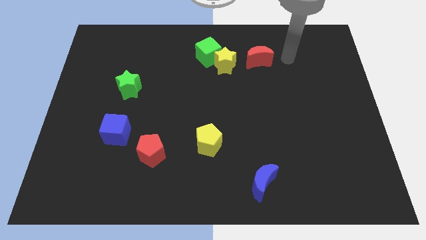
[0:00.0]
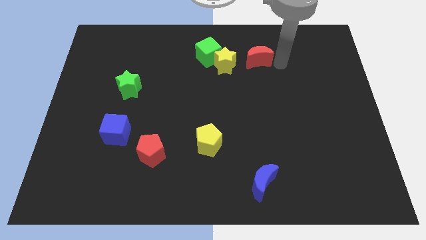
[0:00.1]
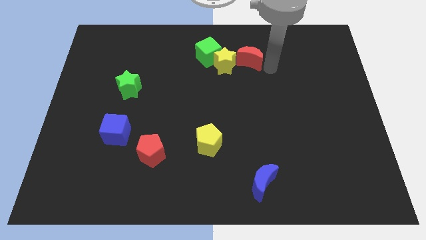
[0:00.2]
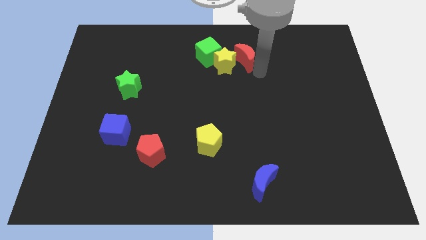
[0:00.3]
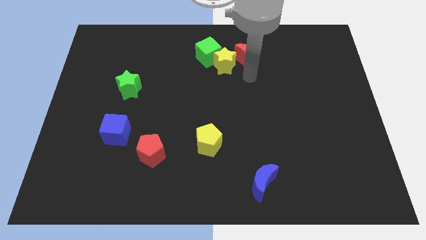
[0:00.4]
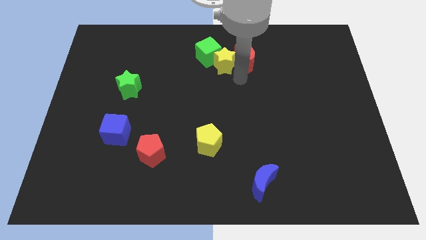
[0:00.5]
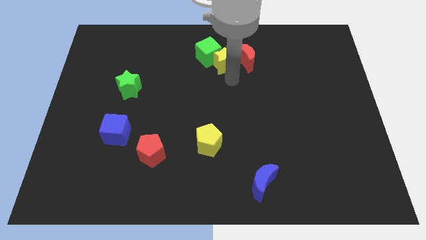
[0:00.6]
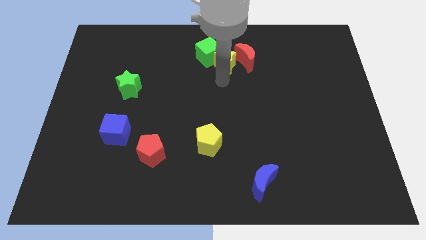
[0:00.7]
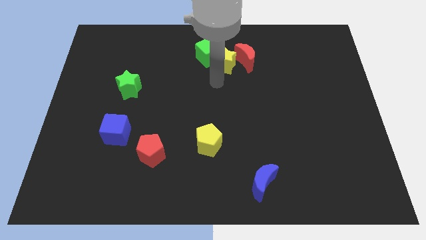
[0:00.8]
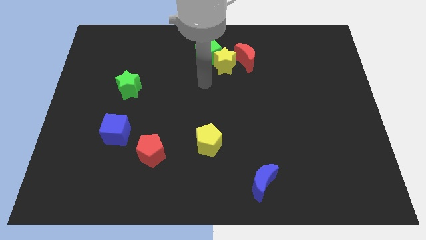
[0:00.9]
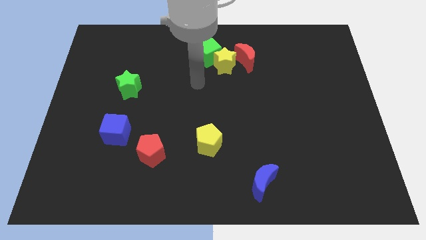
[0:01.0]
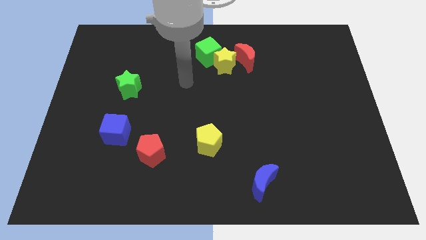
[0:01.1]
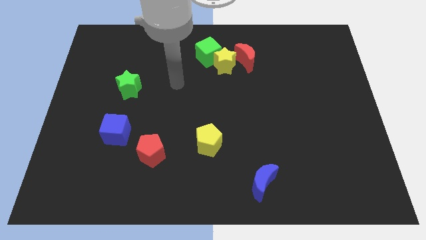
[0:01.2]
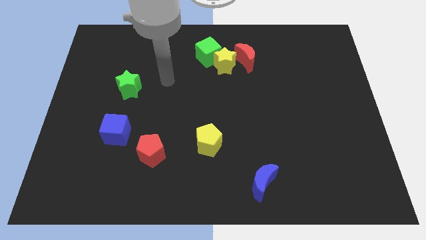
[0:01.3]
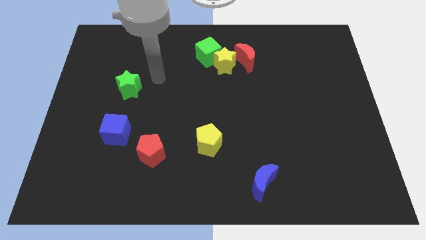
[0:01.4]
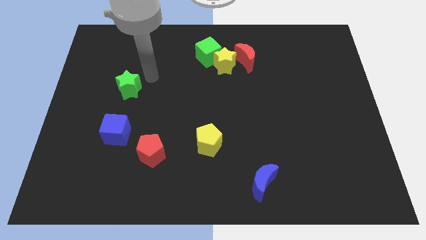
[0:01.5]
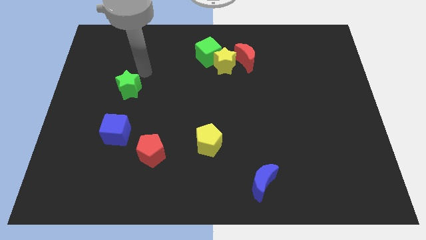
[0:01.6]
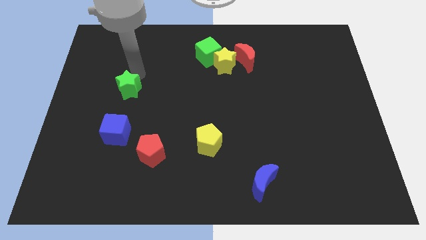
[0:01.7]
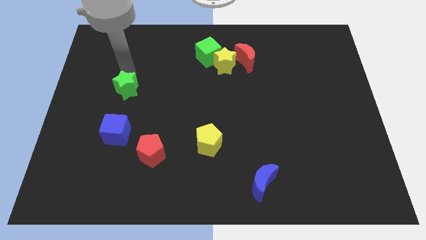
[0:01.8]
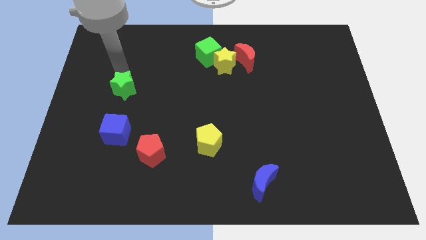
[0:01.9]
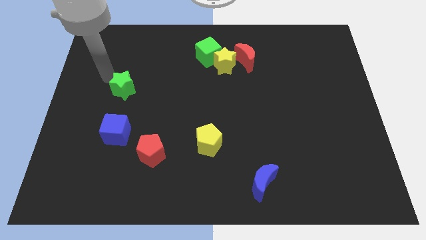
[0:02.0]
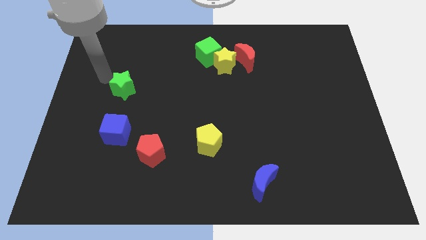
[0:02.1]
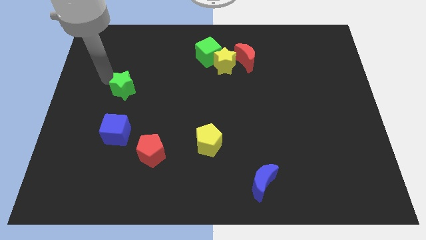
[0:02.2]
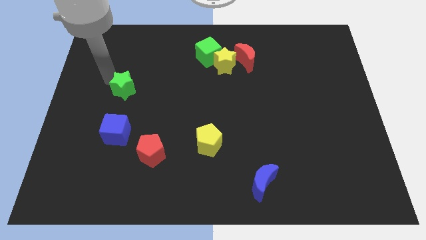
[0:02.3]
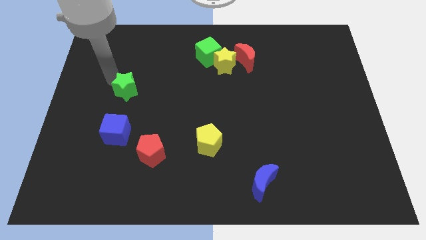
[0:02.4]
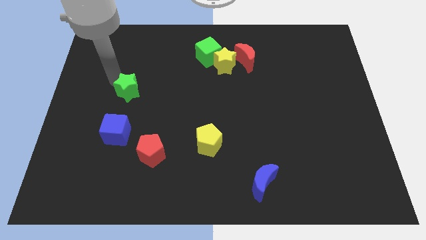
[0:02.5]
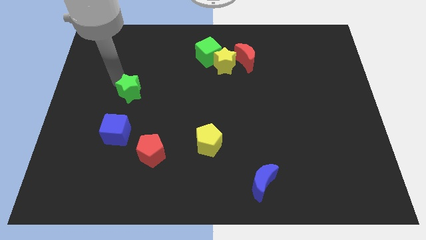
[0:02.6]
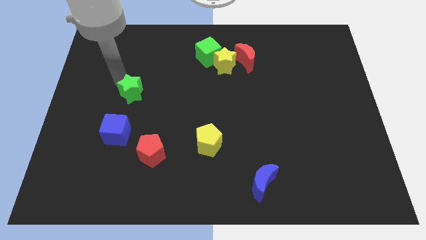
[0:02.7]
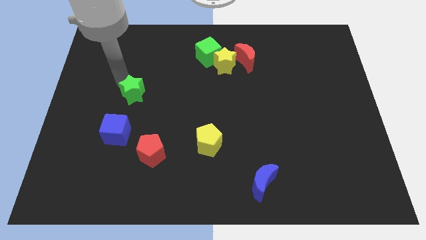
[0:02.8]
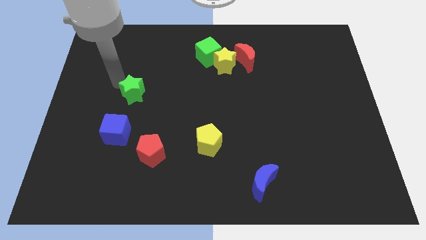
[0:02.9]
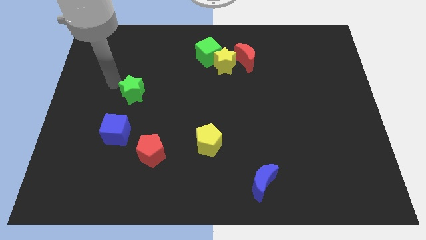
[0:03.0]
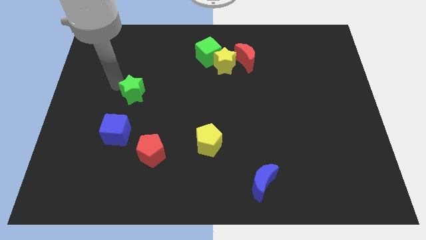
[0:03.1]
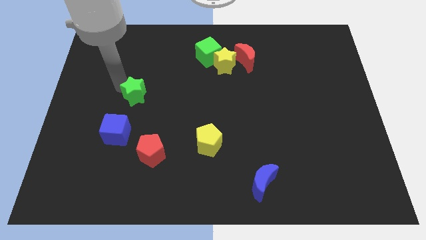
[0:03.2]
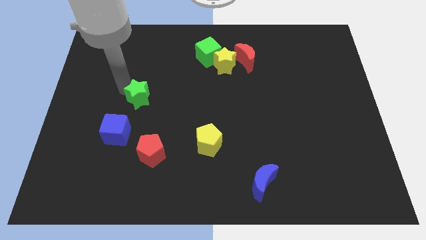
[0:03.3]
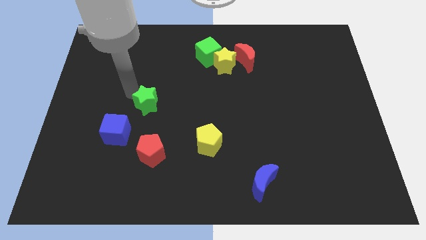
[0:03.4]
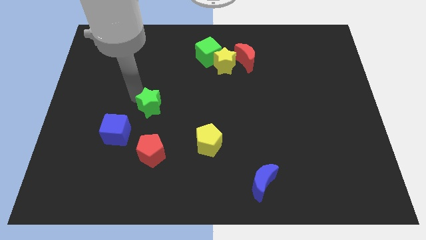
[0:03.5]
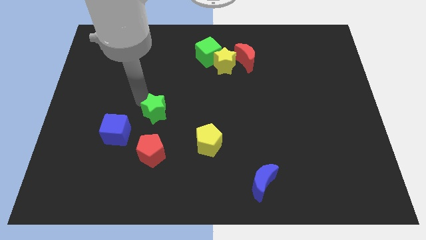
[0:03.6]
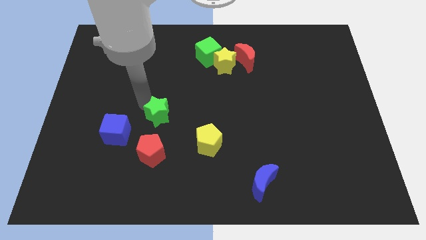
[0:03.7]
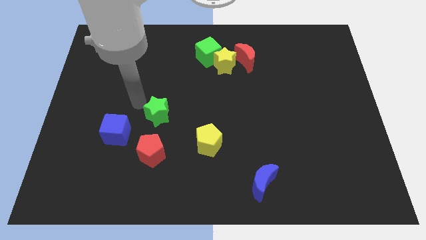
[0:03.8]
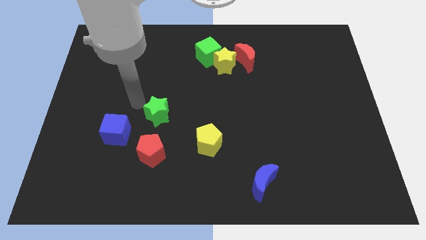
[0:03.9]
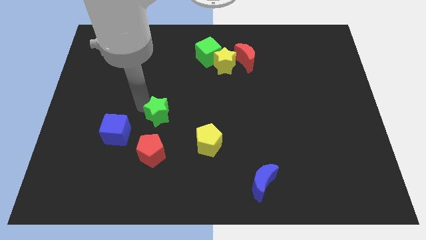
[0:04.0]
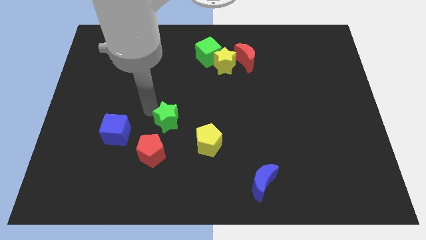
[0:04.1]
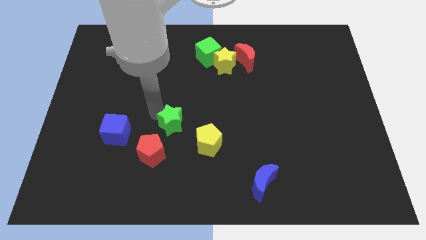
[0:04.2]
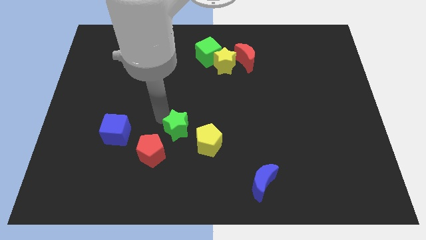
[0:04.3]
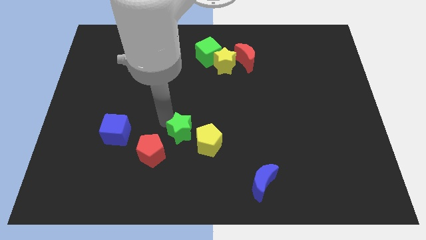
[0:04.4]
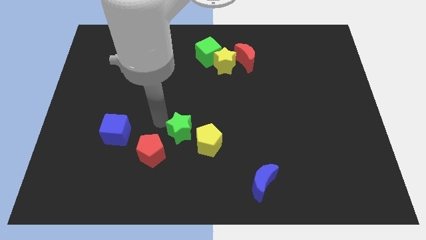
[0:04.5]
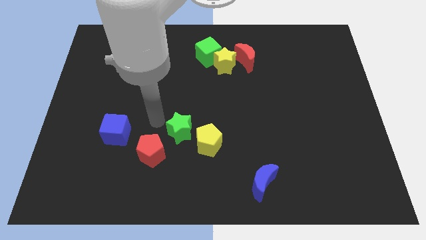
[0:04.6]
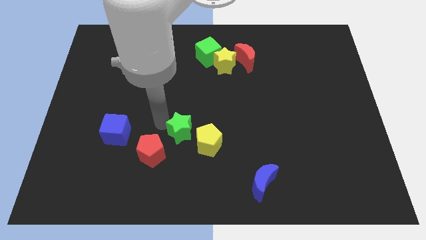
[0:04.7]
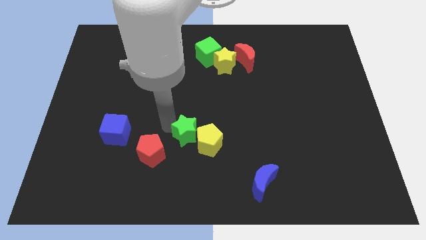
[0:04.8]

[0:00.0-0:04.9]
push the green star next to the yellow pentagon

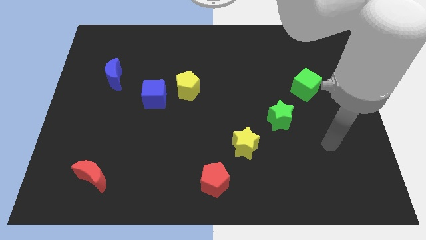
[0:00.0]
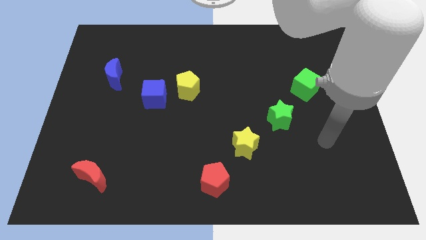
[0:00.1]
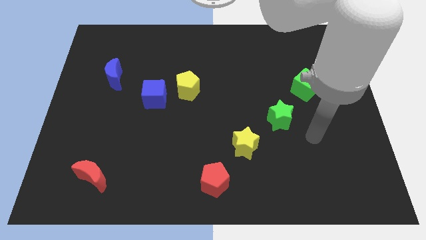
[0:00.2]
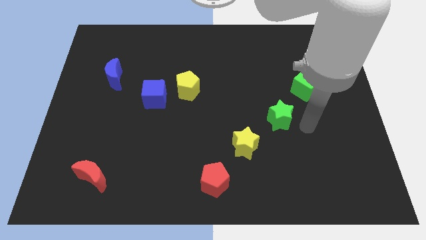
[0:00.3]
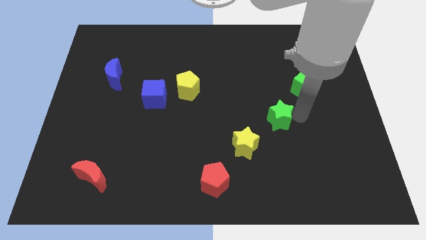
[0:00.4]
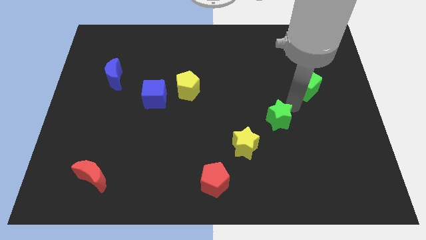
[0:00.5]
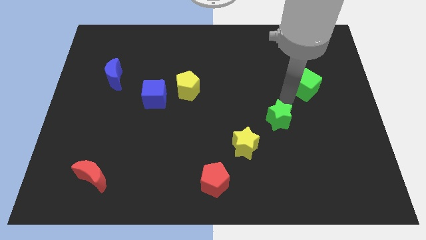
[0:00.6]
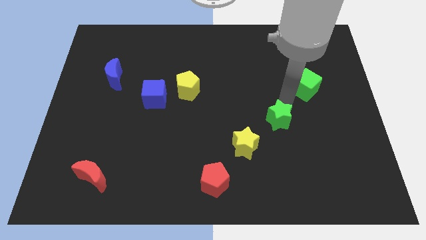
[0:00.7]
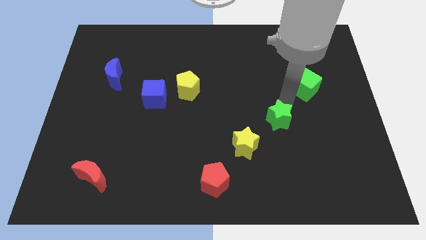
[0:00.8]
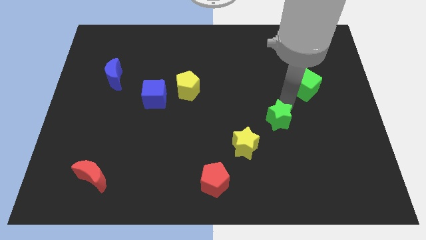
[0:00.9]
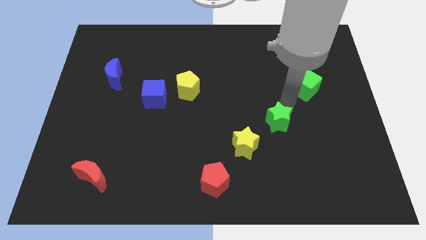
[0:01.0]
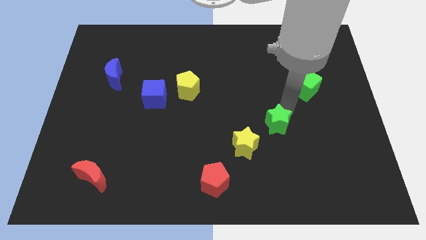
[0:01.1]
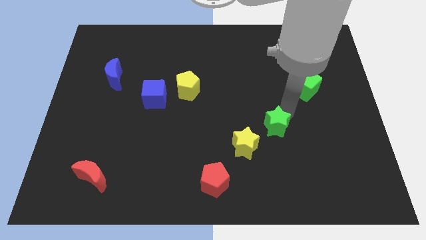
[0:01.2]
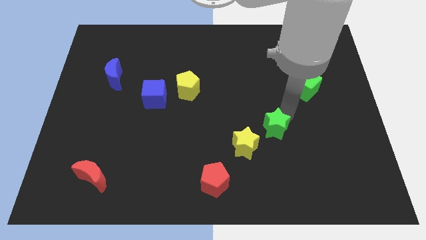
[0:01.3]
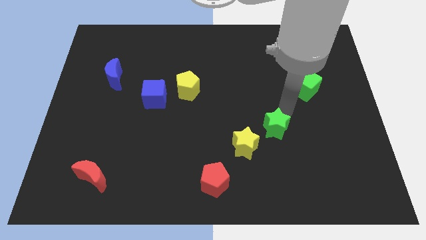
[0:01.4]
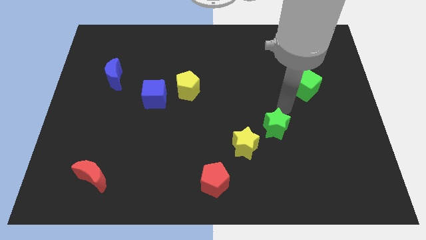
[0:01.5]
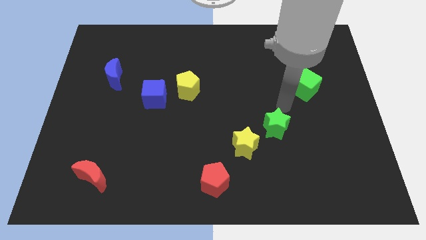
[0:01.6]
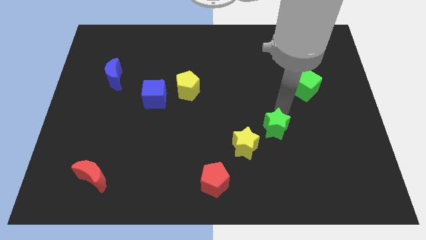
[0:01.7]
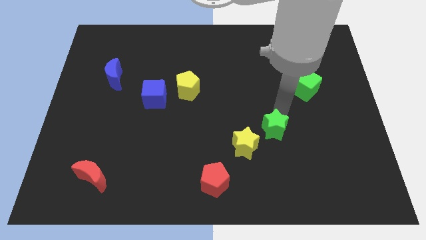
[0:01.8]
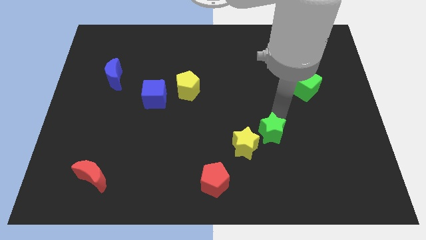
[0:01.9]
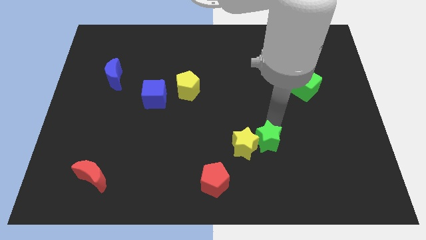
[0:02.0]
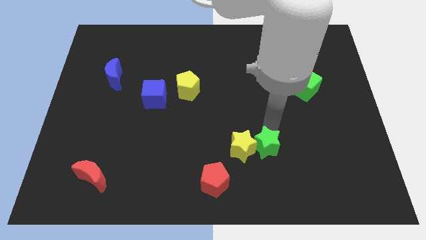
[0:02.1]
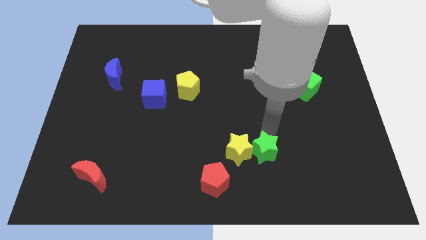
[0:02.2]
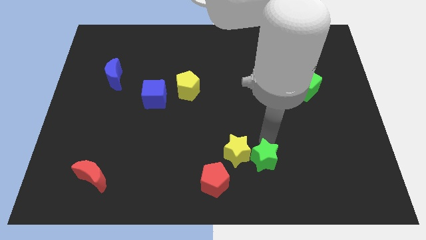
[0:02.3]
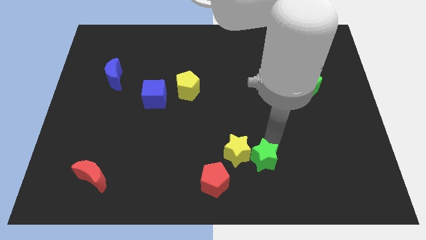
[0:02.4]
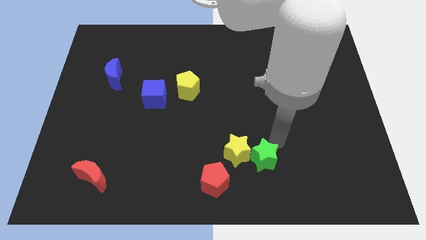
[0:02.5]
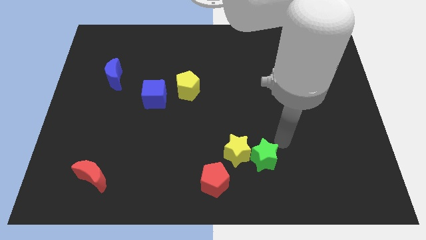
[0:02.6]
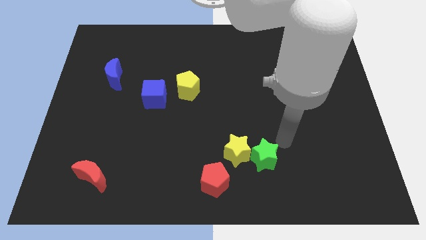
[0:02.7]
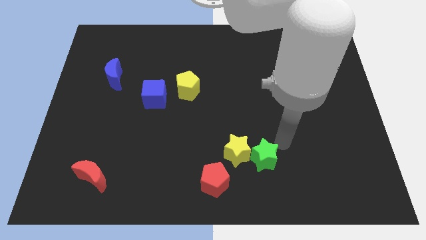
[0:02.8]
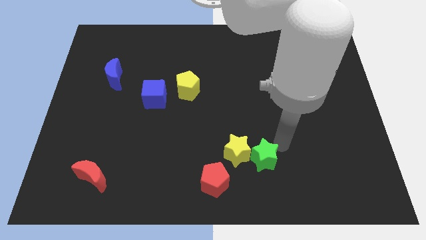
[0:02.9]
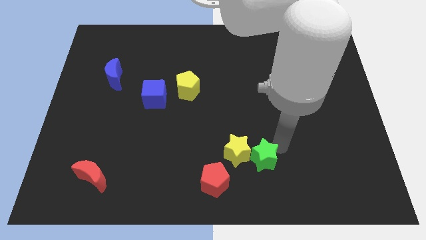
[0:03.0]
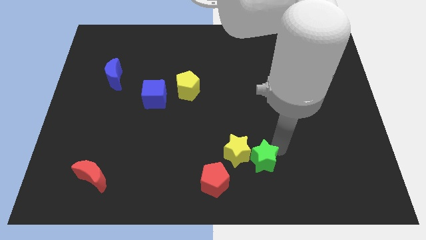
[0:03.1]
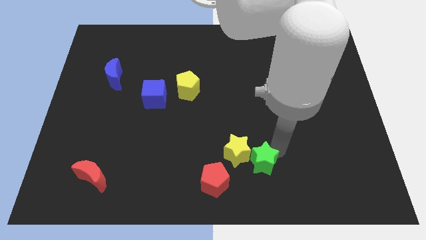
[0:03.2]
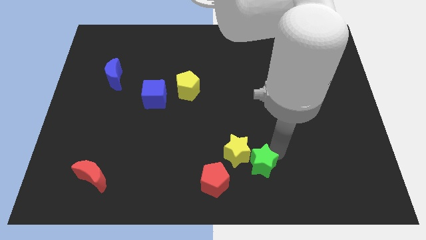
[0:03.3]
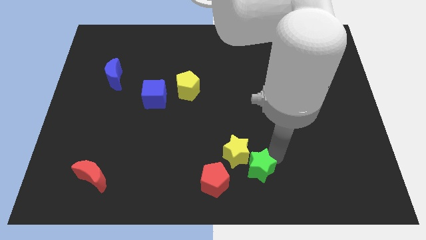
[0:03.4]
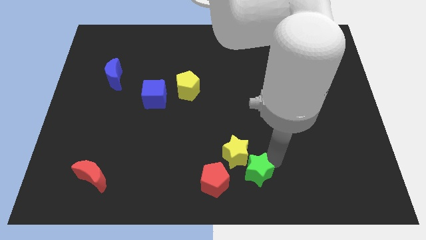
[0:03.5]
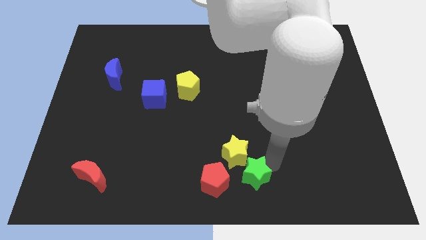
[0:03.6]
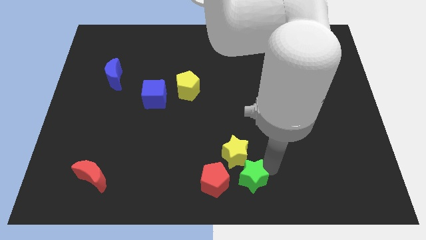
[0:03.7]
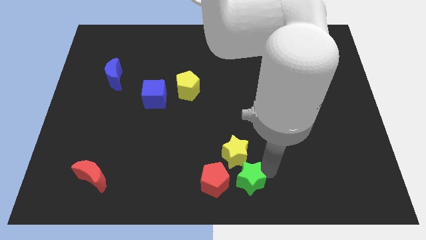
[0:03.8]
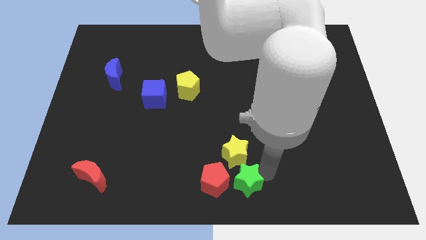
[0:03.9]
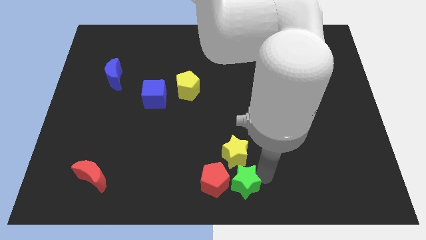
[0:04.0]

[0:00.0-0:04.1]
move the green star towards the red pentagon
